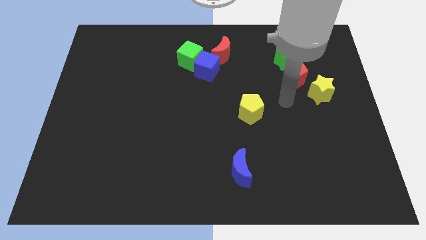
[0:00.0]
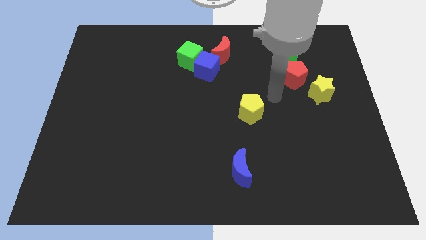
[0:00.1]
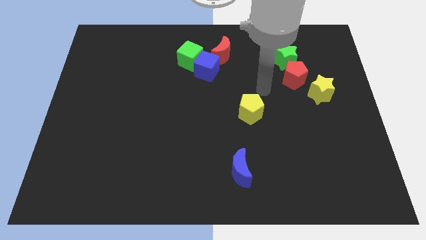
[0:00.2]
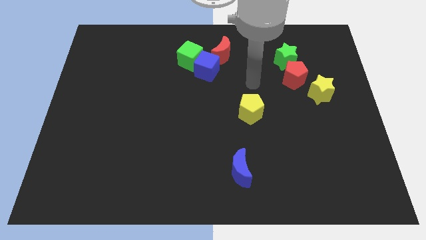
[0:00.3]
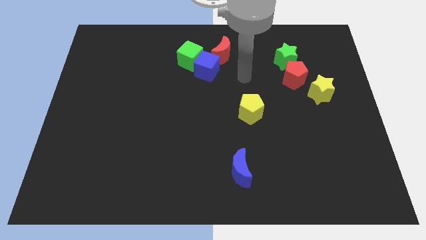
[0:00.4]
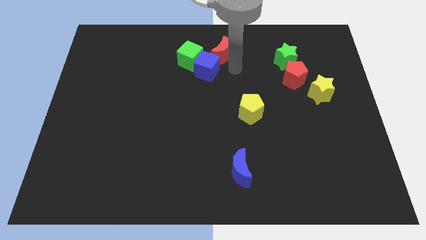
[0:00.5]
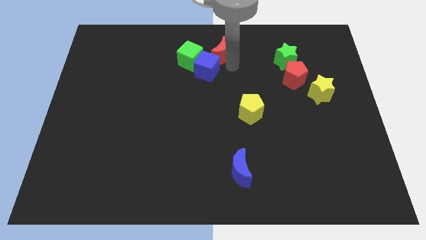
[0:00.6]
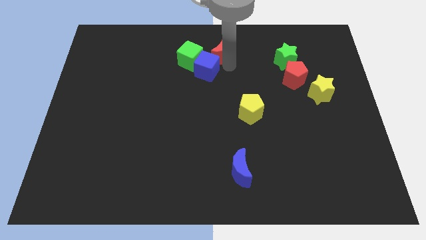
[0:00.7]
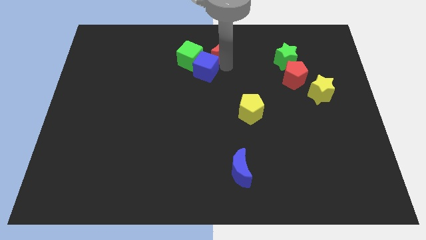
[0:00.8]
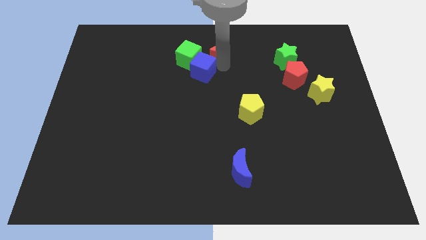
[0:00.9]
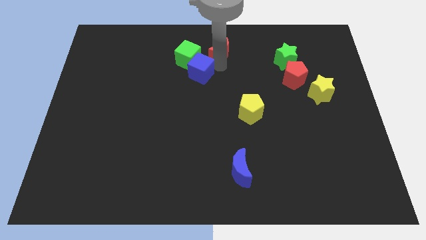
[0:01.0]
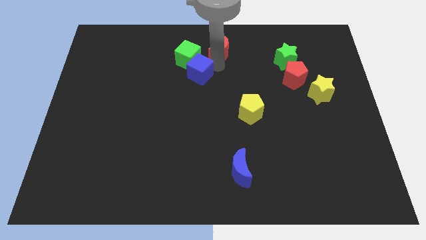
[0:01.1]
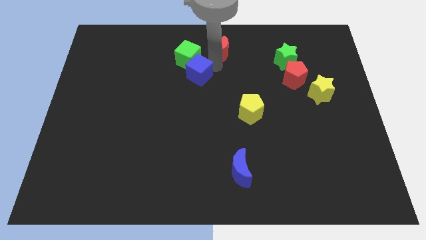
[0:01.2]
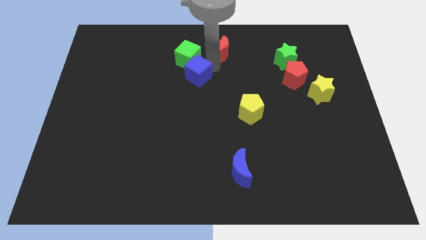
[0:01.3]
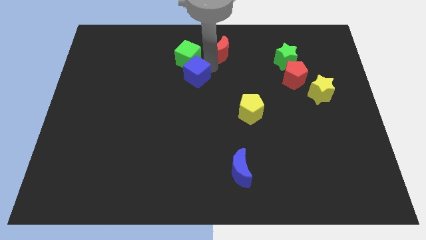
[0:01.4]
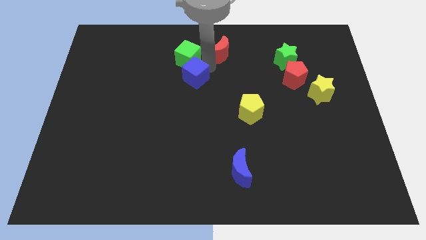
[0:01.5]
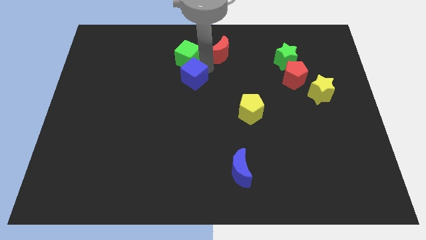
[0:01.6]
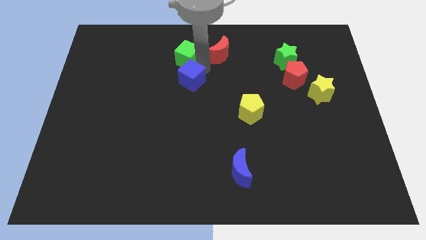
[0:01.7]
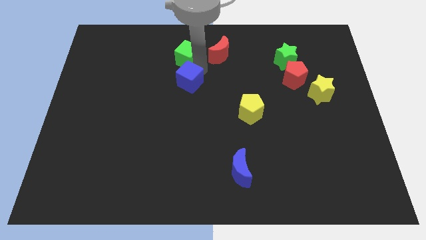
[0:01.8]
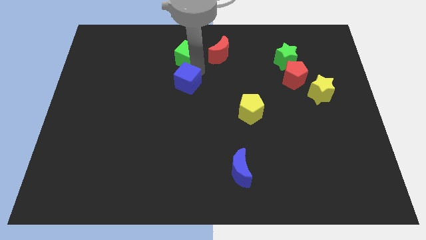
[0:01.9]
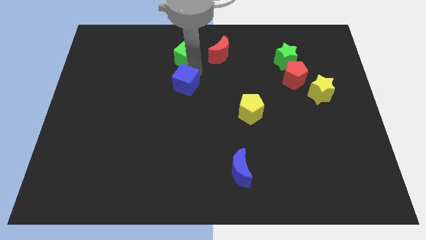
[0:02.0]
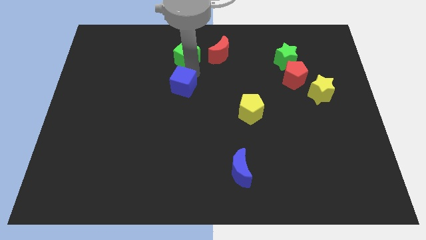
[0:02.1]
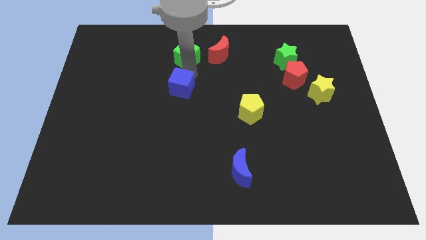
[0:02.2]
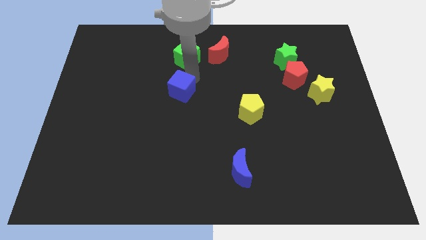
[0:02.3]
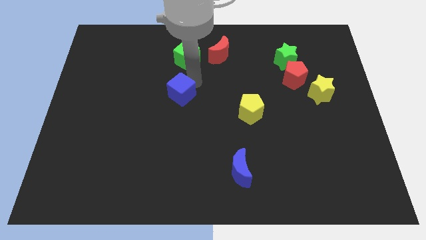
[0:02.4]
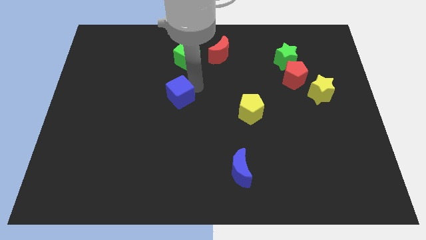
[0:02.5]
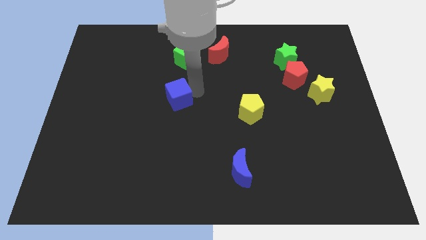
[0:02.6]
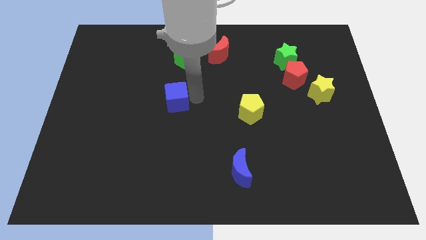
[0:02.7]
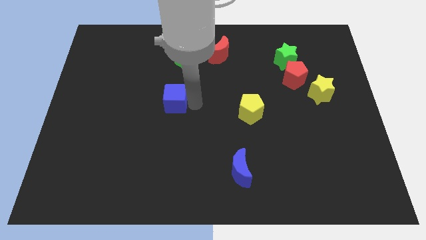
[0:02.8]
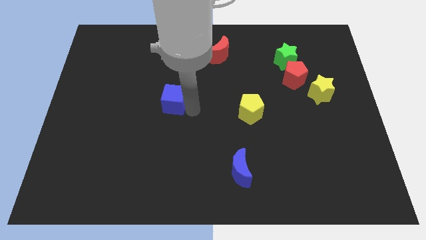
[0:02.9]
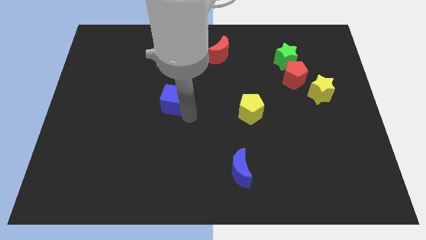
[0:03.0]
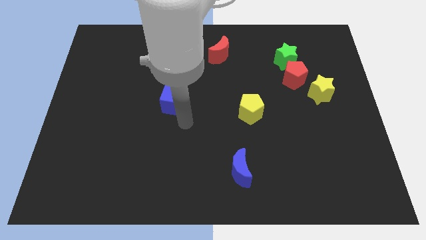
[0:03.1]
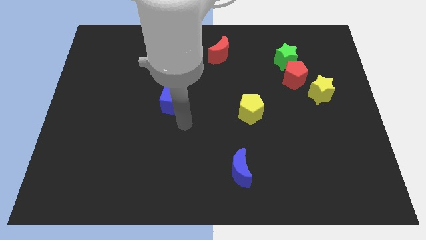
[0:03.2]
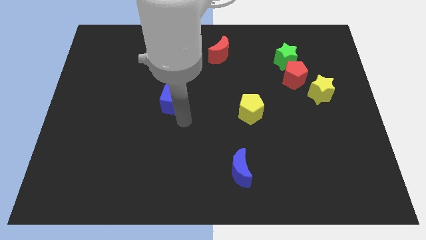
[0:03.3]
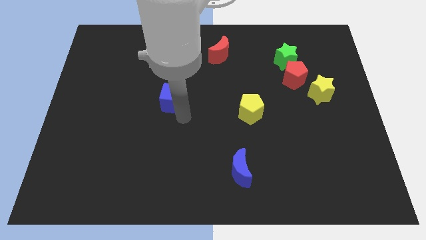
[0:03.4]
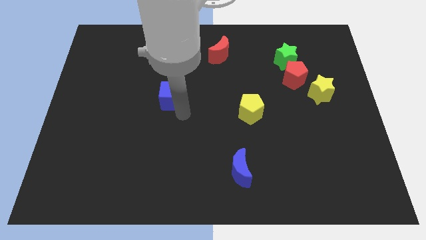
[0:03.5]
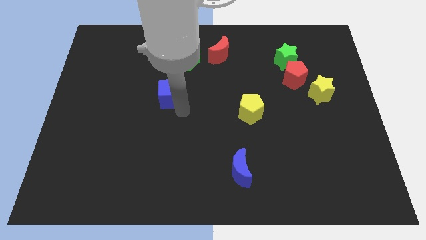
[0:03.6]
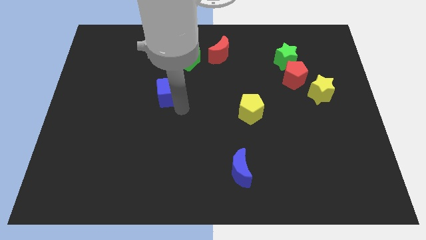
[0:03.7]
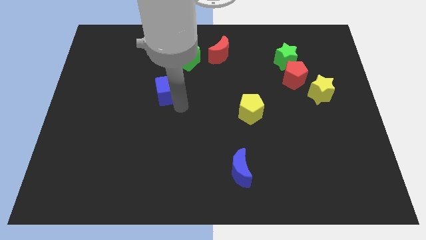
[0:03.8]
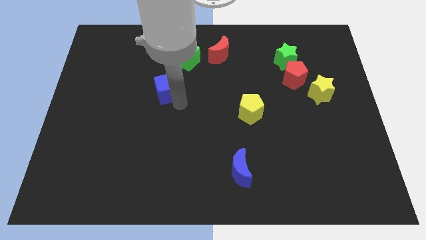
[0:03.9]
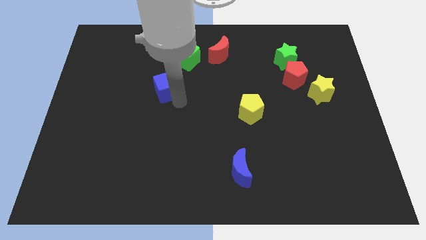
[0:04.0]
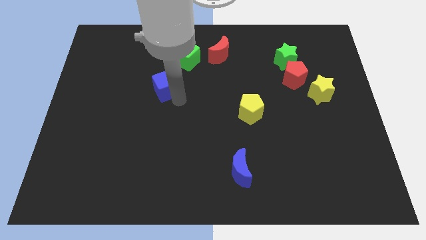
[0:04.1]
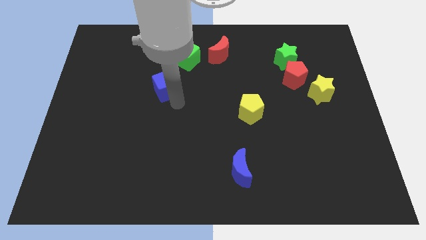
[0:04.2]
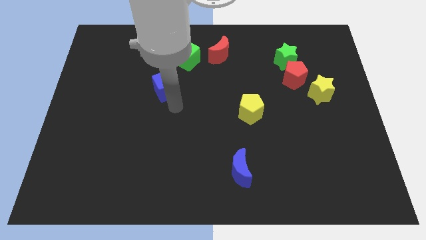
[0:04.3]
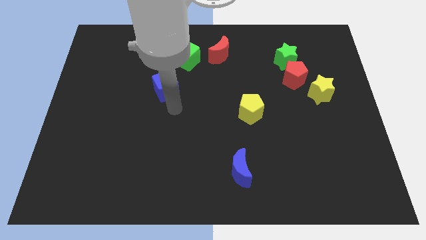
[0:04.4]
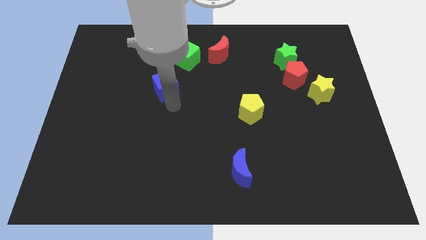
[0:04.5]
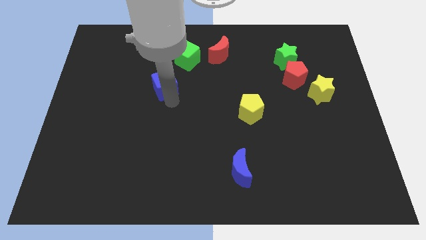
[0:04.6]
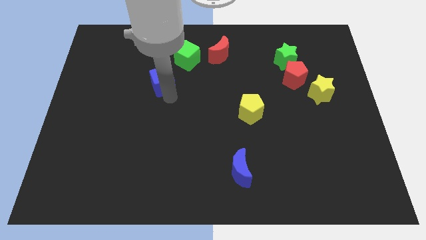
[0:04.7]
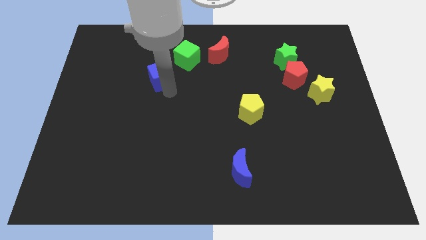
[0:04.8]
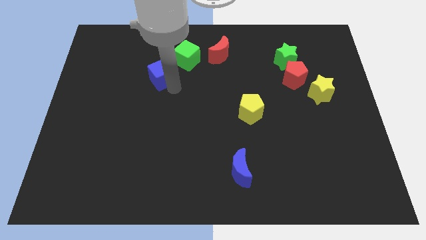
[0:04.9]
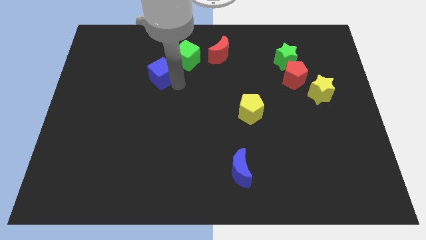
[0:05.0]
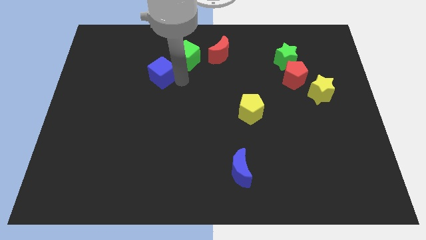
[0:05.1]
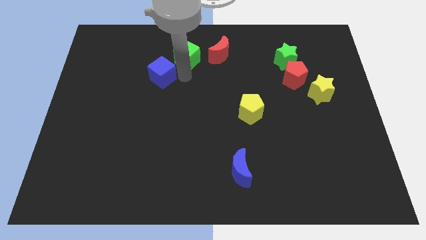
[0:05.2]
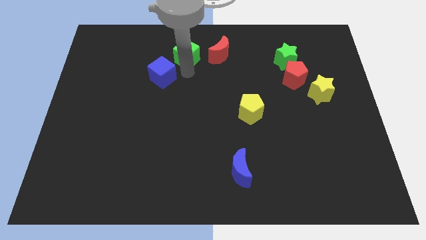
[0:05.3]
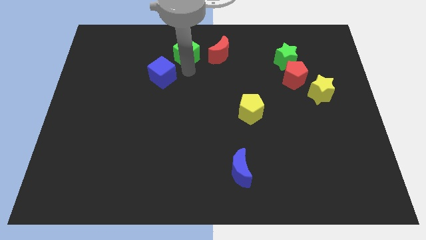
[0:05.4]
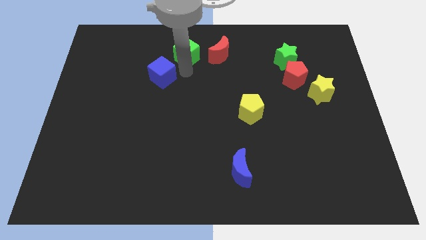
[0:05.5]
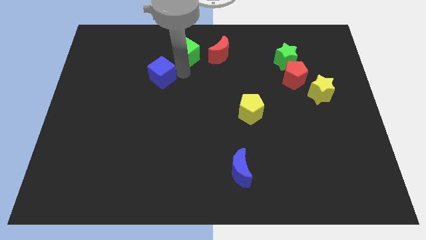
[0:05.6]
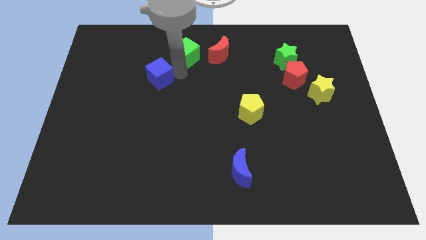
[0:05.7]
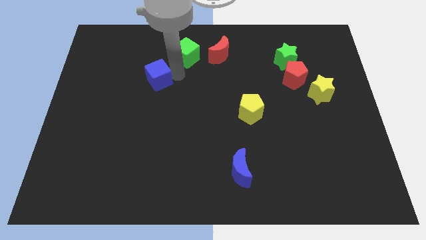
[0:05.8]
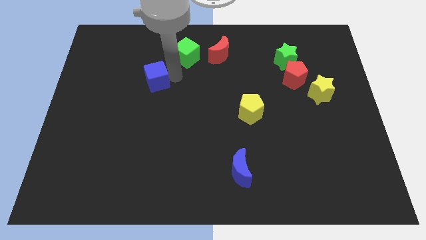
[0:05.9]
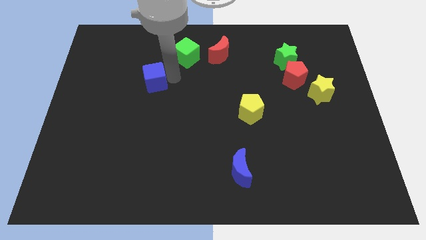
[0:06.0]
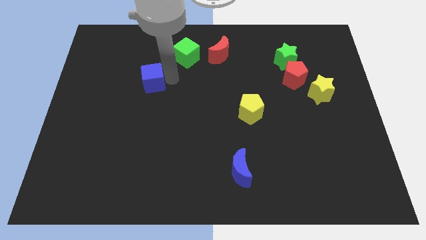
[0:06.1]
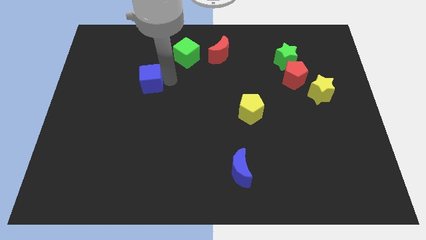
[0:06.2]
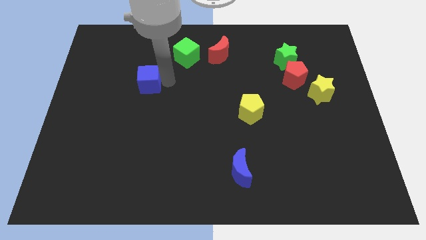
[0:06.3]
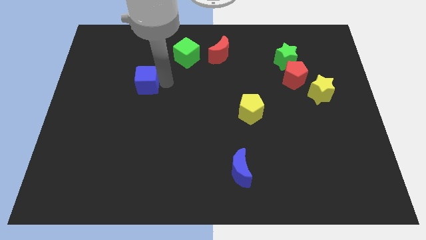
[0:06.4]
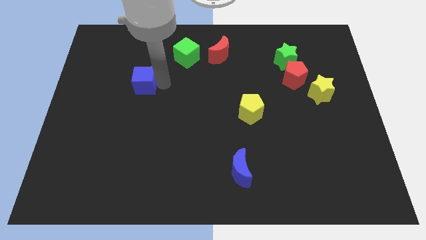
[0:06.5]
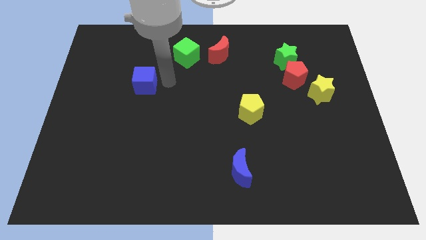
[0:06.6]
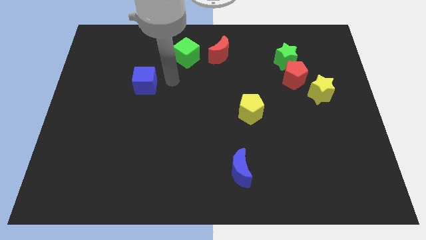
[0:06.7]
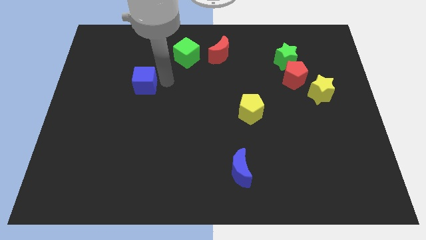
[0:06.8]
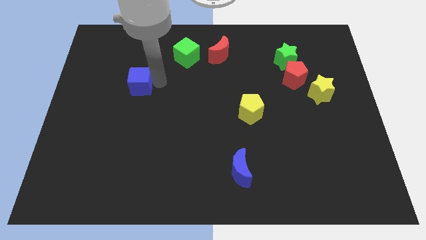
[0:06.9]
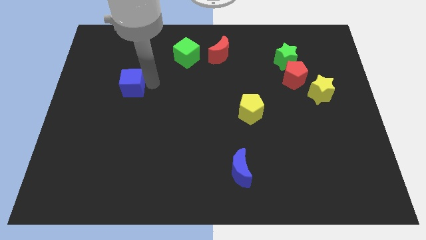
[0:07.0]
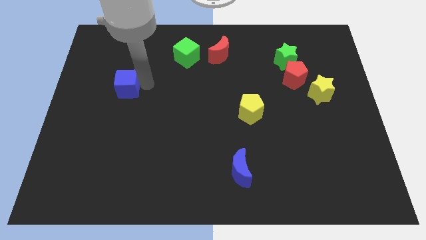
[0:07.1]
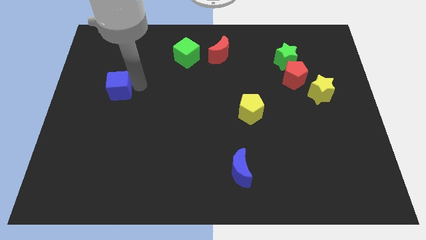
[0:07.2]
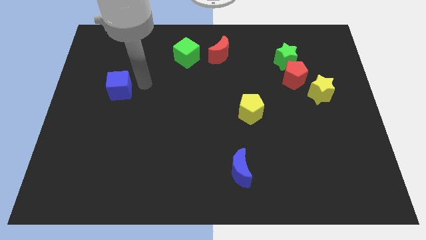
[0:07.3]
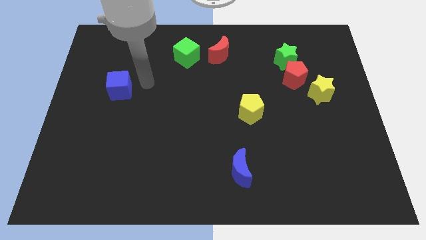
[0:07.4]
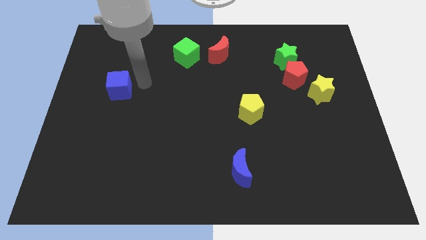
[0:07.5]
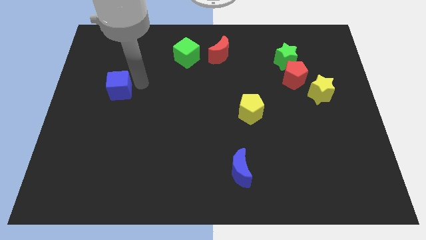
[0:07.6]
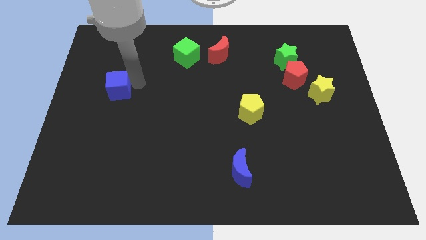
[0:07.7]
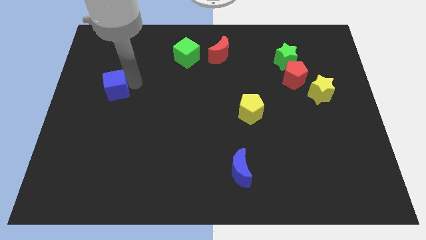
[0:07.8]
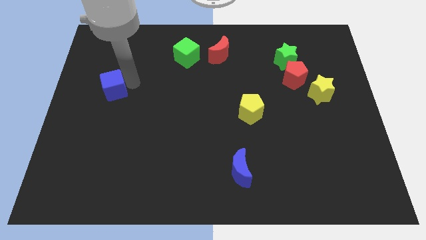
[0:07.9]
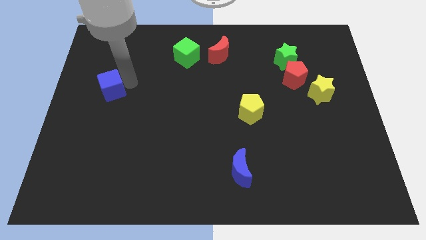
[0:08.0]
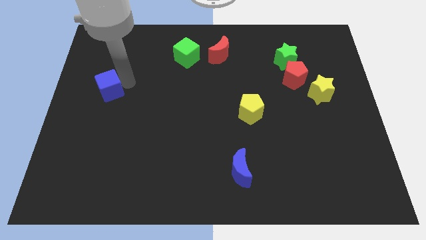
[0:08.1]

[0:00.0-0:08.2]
push the blue cube to the left side
